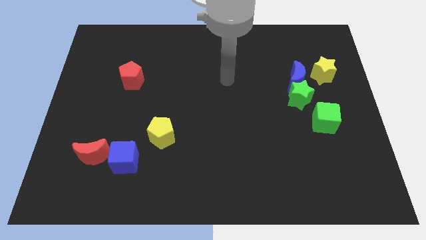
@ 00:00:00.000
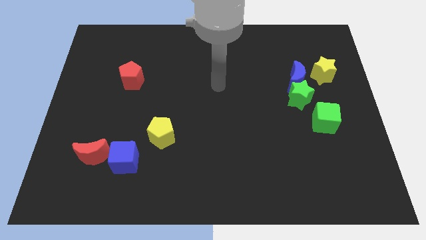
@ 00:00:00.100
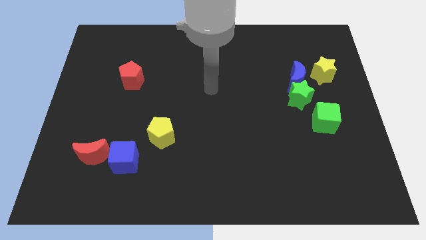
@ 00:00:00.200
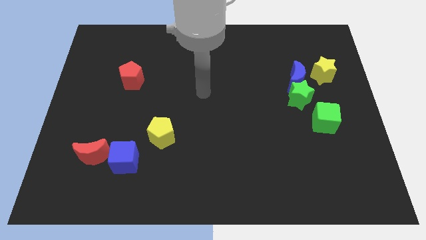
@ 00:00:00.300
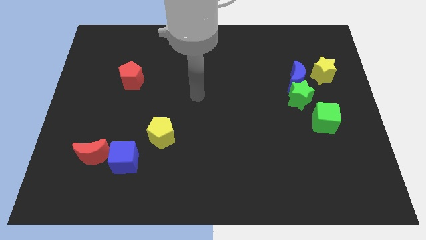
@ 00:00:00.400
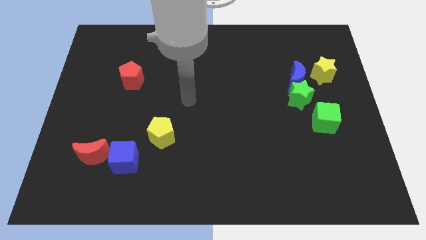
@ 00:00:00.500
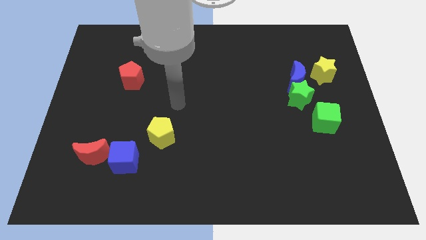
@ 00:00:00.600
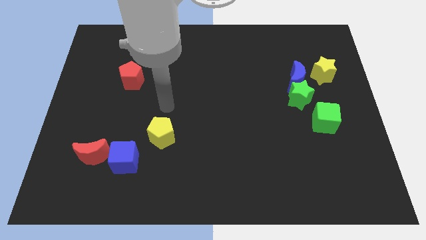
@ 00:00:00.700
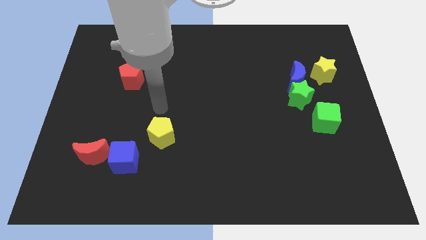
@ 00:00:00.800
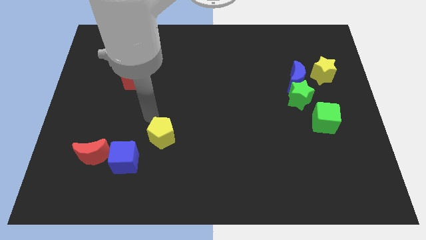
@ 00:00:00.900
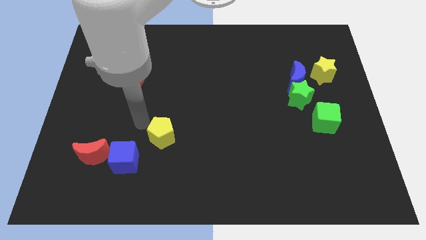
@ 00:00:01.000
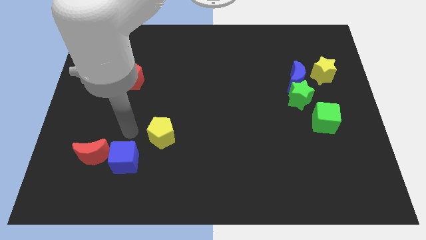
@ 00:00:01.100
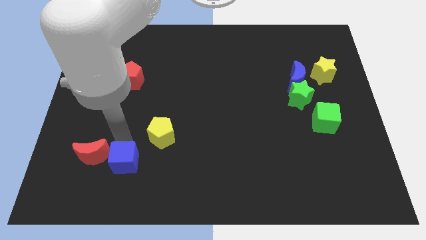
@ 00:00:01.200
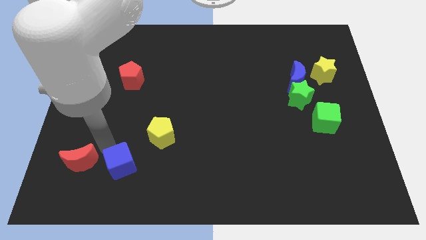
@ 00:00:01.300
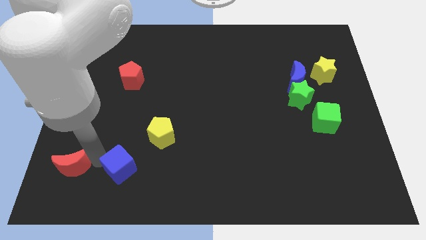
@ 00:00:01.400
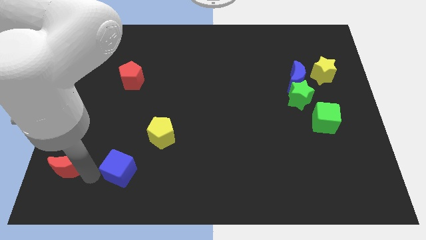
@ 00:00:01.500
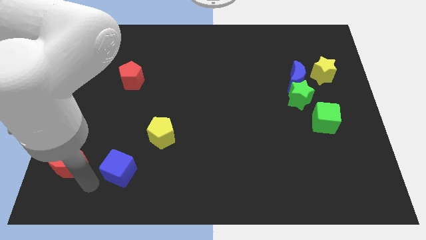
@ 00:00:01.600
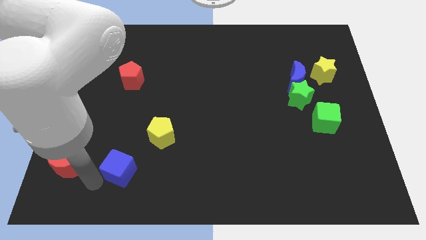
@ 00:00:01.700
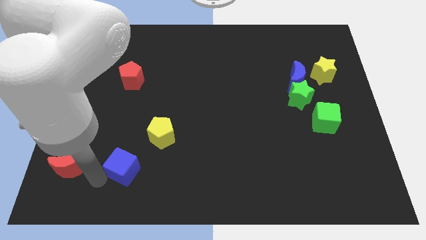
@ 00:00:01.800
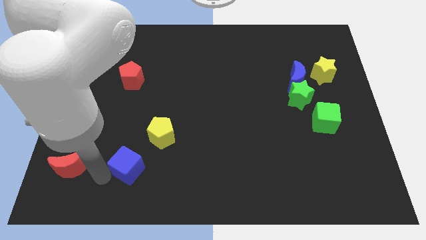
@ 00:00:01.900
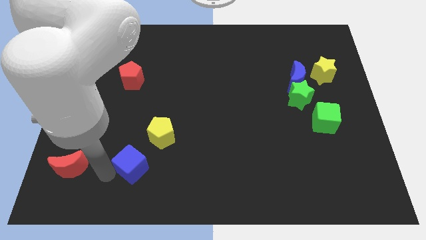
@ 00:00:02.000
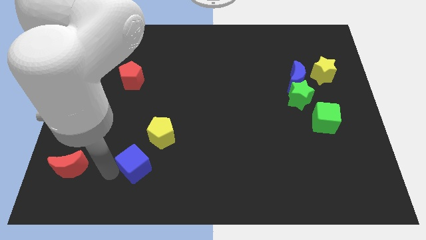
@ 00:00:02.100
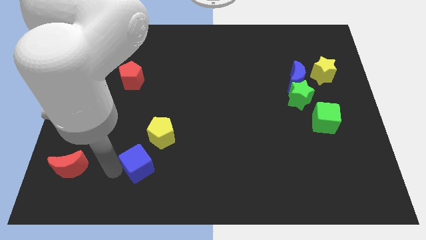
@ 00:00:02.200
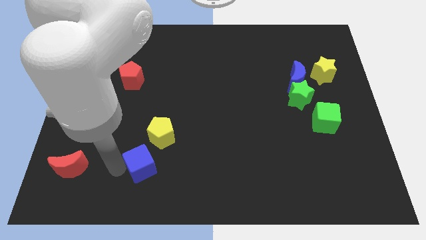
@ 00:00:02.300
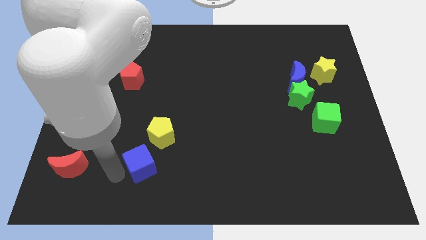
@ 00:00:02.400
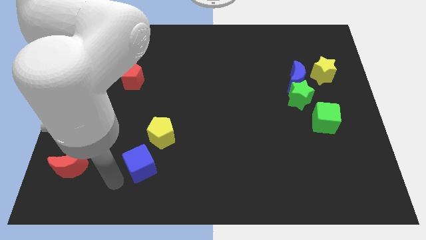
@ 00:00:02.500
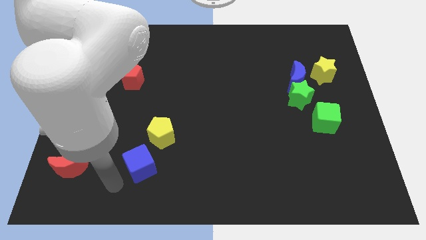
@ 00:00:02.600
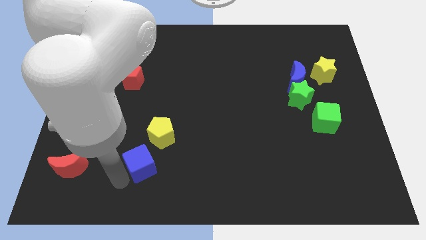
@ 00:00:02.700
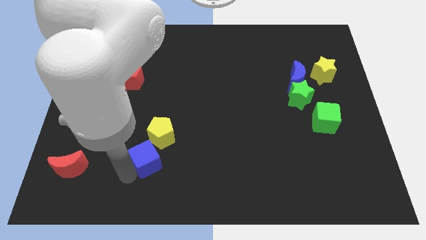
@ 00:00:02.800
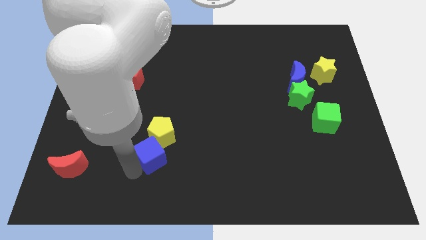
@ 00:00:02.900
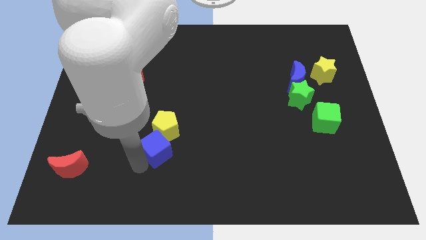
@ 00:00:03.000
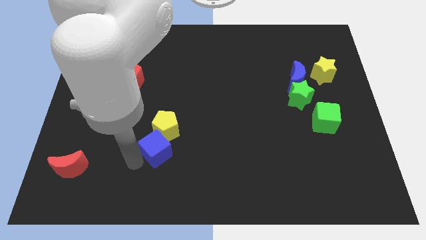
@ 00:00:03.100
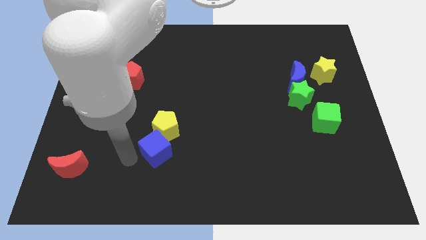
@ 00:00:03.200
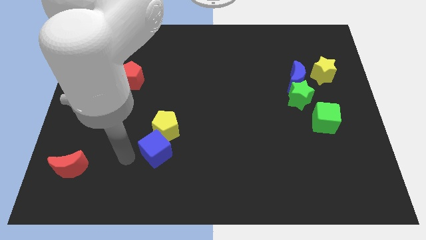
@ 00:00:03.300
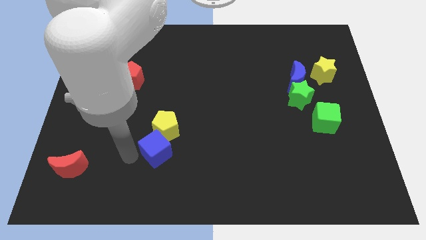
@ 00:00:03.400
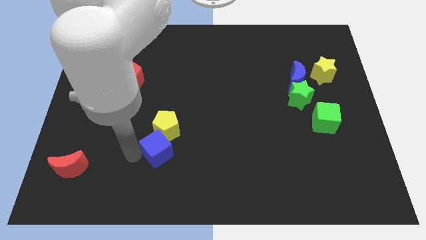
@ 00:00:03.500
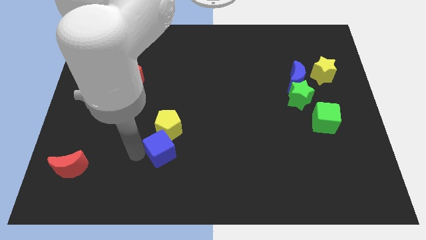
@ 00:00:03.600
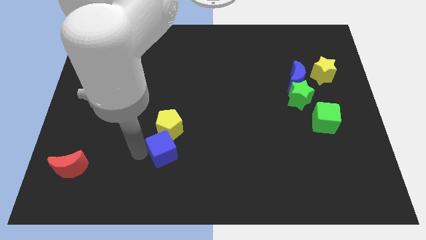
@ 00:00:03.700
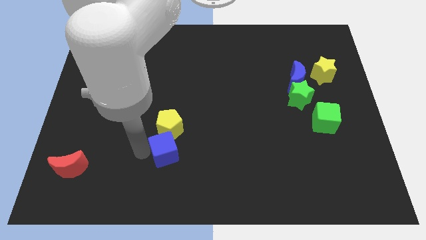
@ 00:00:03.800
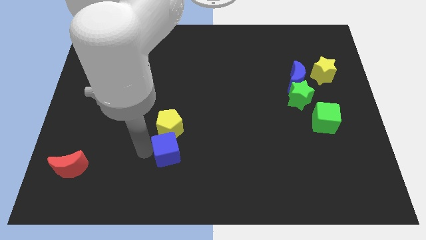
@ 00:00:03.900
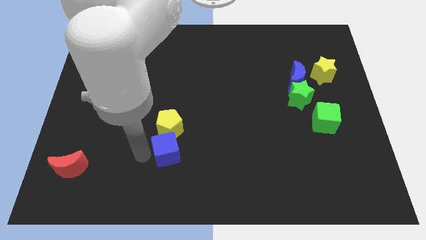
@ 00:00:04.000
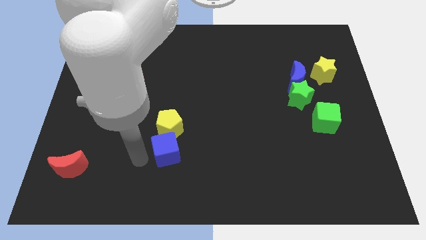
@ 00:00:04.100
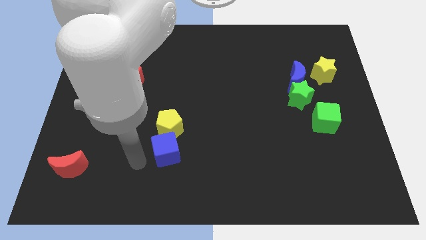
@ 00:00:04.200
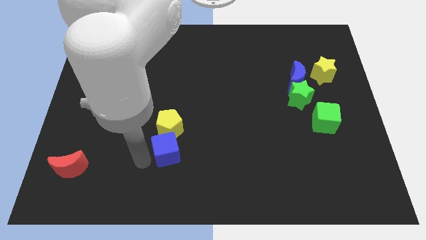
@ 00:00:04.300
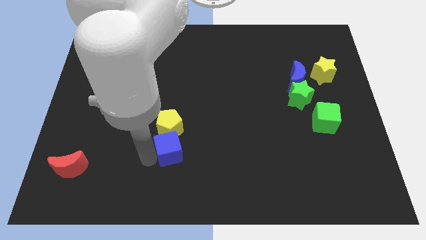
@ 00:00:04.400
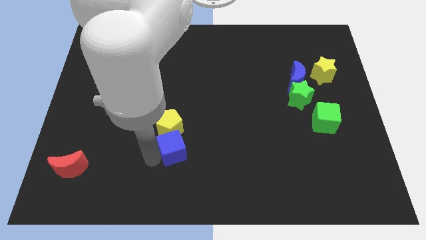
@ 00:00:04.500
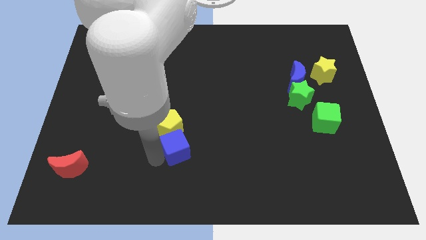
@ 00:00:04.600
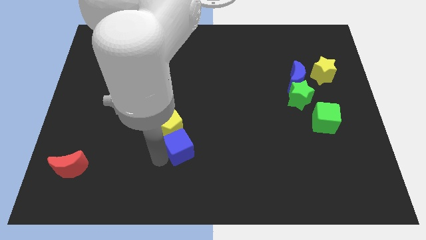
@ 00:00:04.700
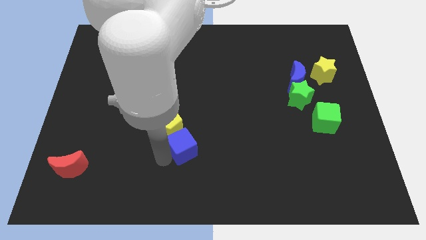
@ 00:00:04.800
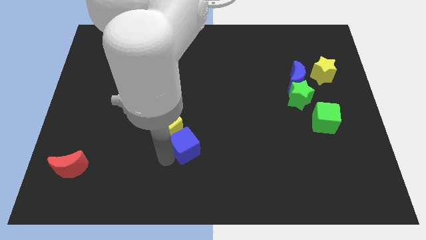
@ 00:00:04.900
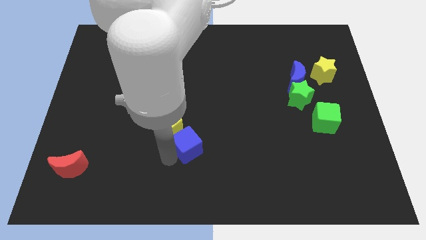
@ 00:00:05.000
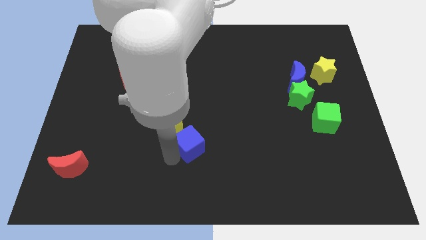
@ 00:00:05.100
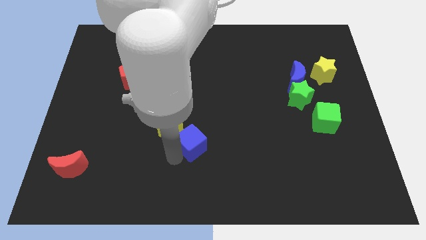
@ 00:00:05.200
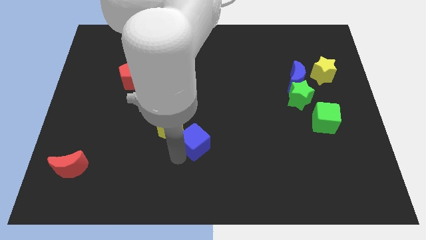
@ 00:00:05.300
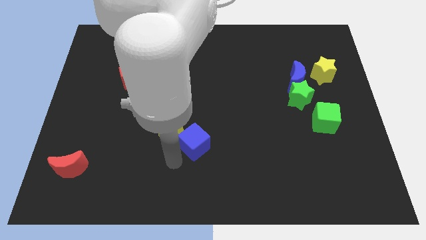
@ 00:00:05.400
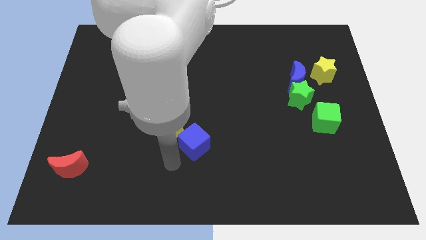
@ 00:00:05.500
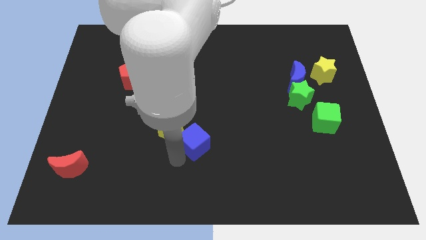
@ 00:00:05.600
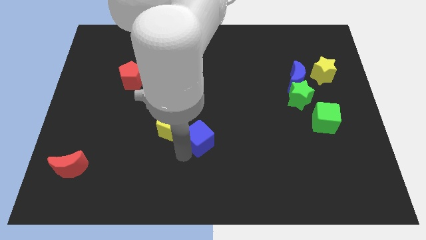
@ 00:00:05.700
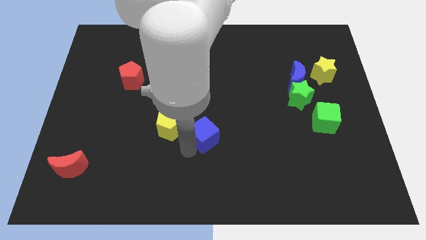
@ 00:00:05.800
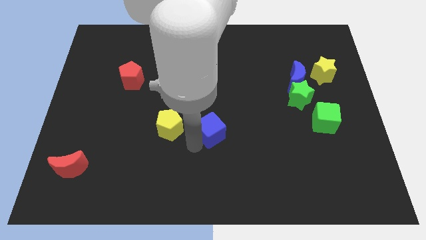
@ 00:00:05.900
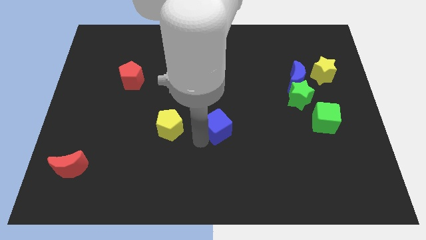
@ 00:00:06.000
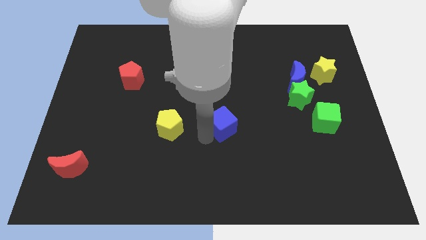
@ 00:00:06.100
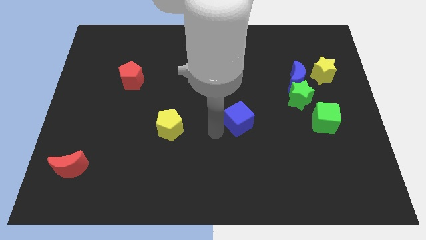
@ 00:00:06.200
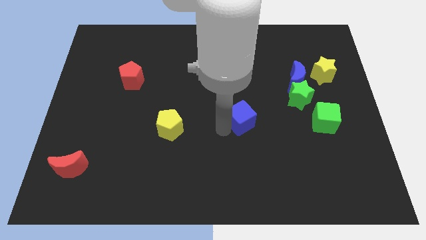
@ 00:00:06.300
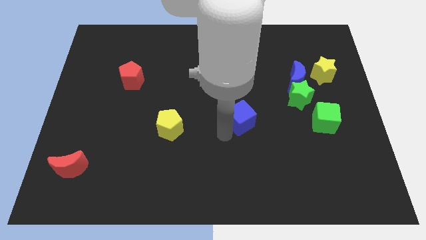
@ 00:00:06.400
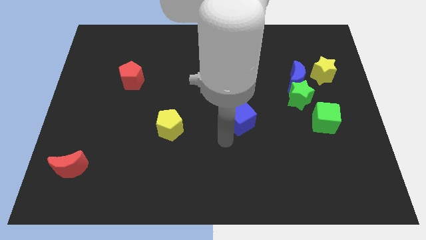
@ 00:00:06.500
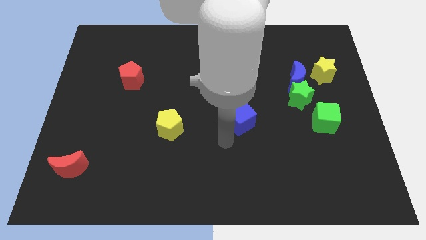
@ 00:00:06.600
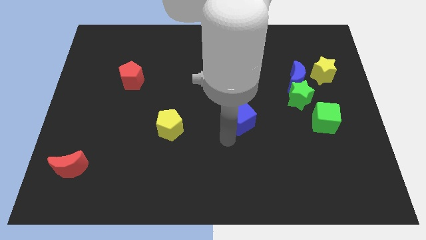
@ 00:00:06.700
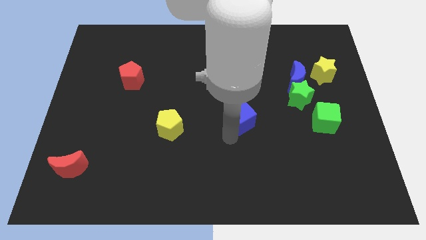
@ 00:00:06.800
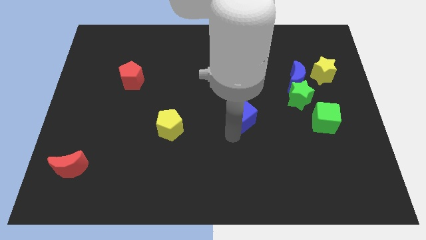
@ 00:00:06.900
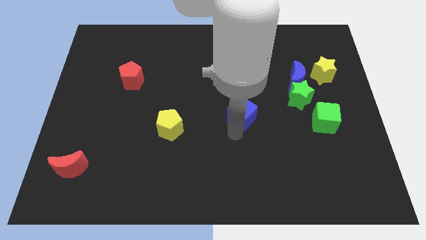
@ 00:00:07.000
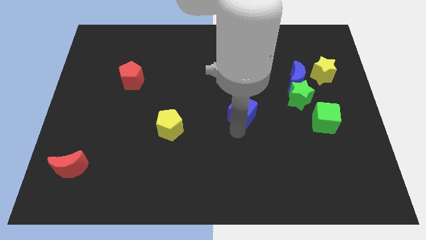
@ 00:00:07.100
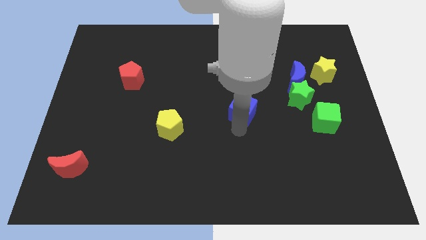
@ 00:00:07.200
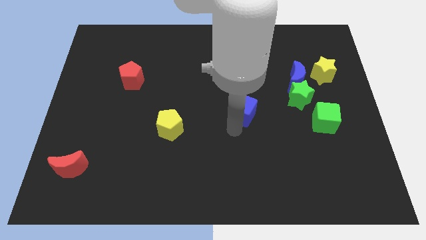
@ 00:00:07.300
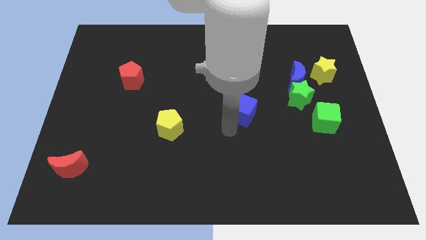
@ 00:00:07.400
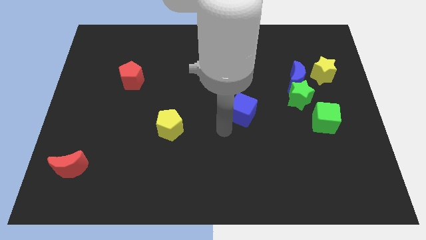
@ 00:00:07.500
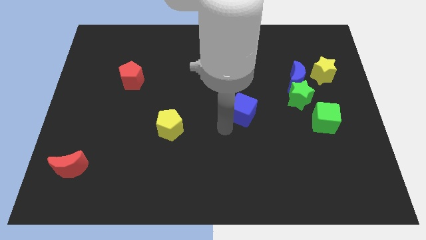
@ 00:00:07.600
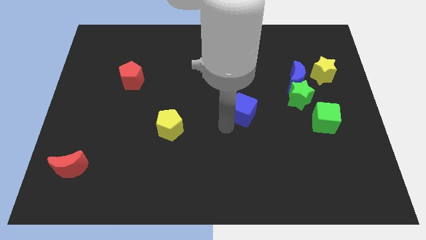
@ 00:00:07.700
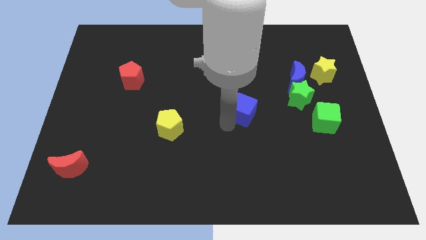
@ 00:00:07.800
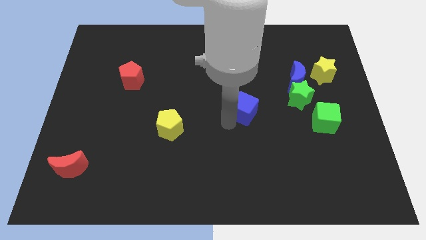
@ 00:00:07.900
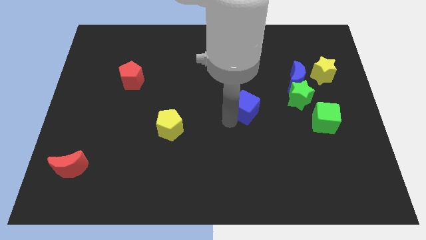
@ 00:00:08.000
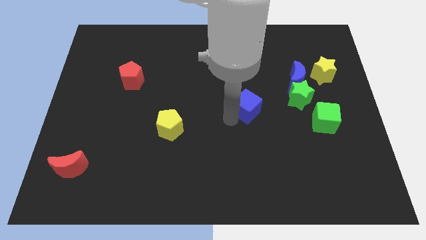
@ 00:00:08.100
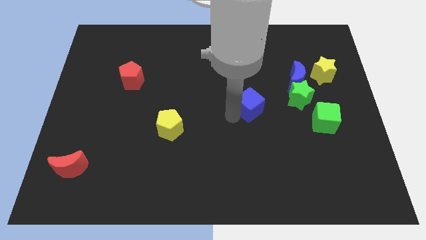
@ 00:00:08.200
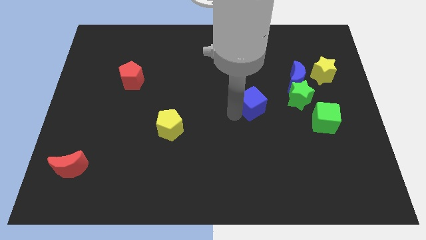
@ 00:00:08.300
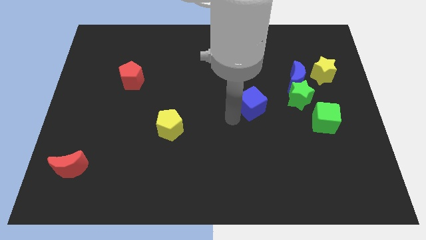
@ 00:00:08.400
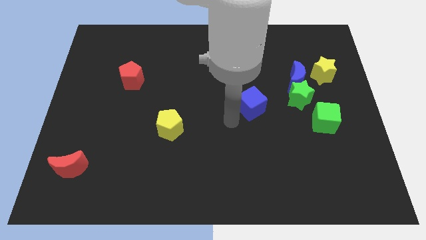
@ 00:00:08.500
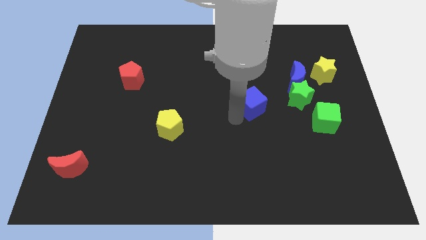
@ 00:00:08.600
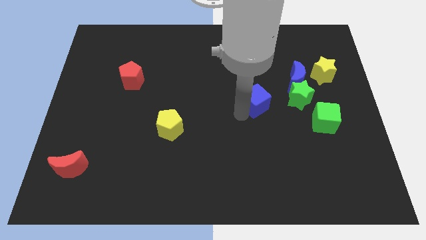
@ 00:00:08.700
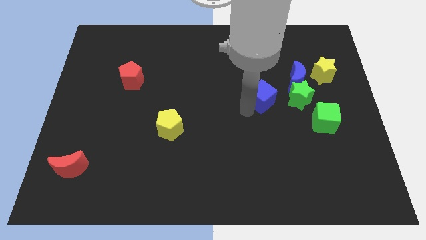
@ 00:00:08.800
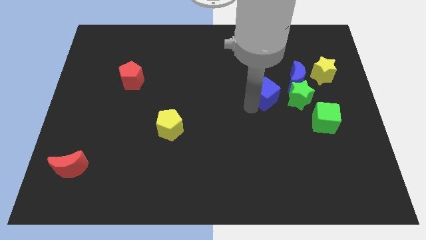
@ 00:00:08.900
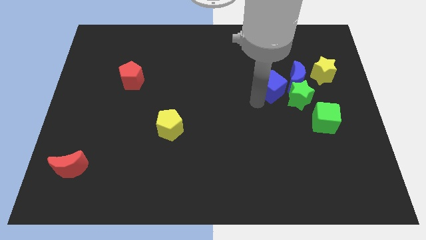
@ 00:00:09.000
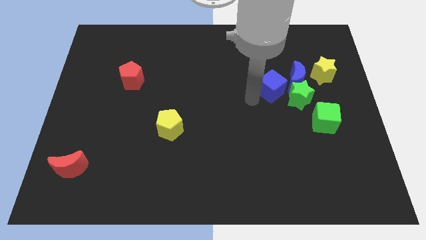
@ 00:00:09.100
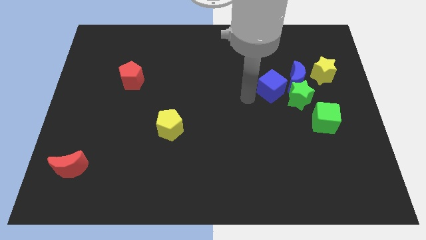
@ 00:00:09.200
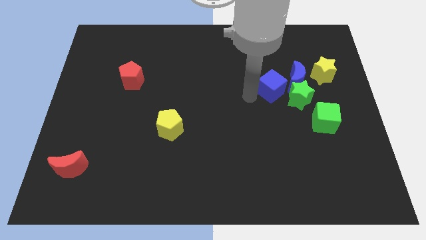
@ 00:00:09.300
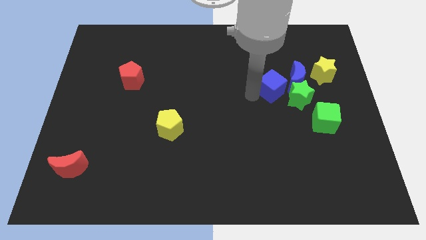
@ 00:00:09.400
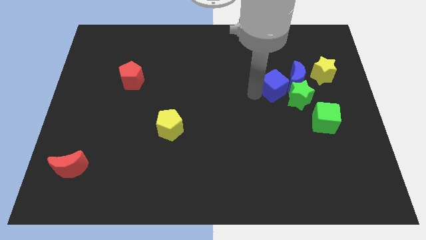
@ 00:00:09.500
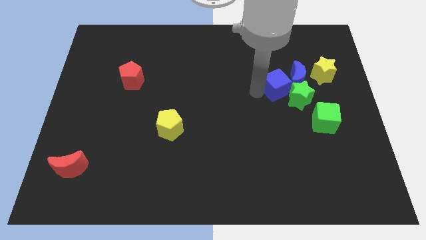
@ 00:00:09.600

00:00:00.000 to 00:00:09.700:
push the blue cube close to the blue moon